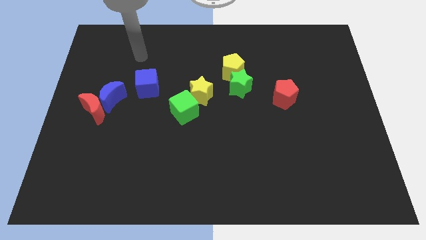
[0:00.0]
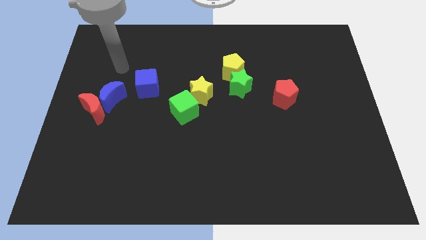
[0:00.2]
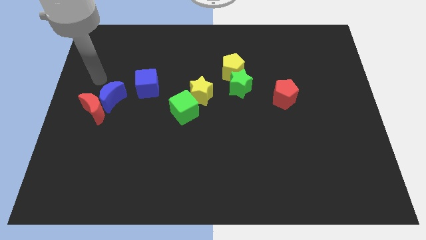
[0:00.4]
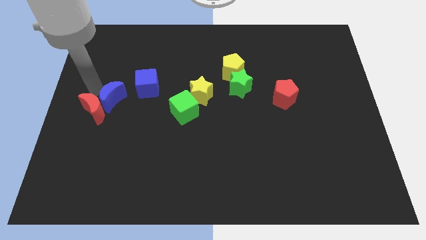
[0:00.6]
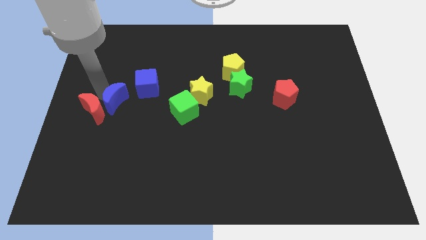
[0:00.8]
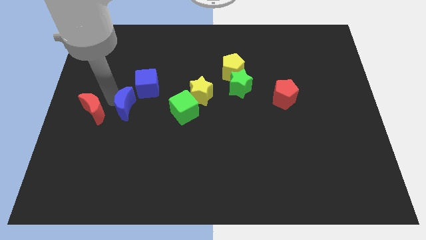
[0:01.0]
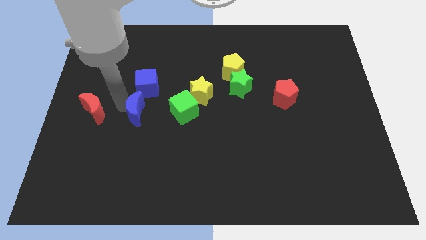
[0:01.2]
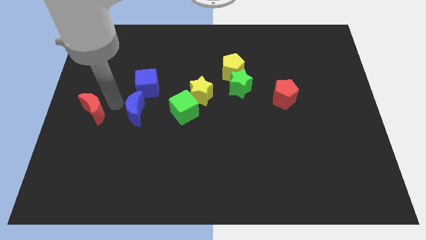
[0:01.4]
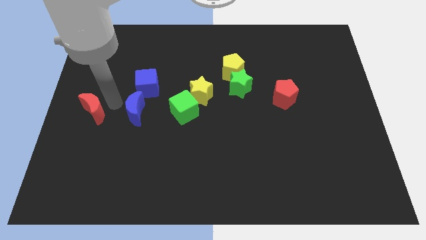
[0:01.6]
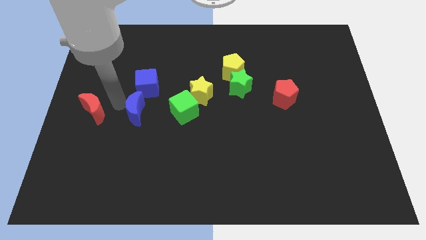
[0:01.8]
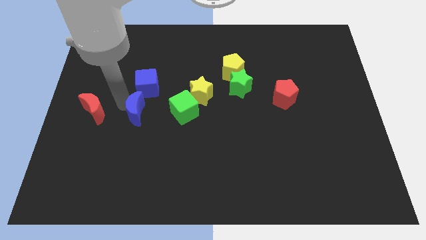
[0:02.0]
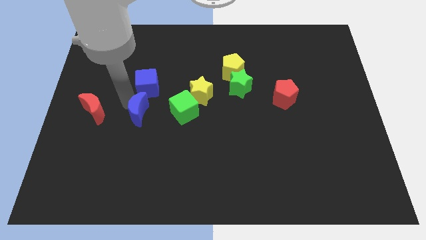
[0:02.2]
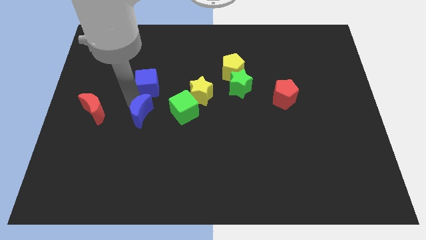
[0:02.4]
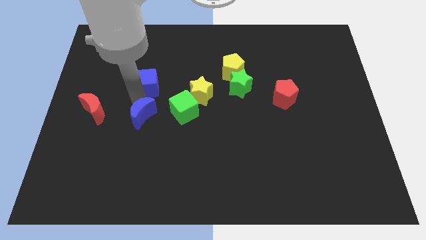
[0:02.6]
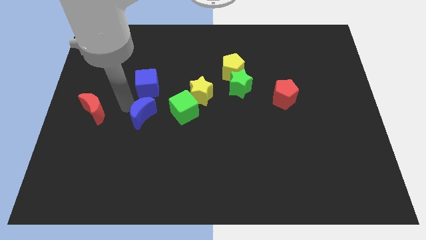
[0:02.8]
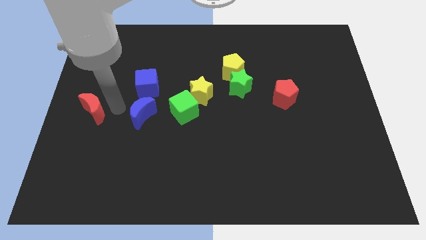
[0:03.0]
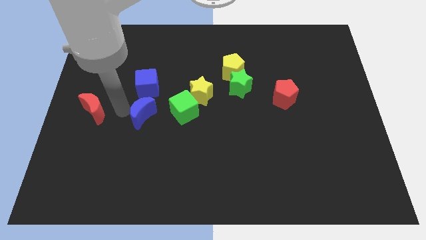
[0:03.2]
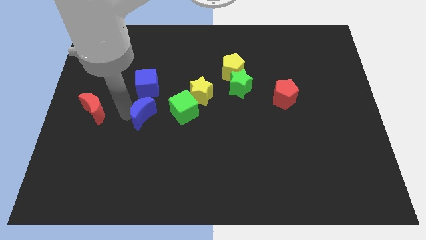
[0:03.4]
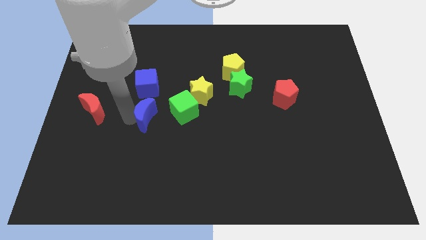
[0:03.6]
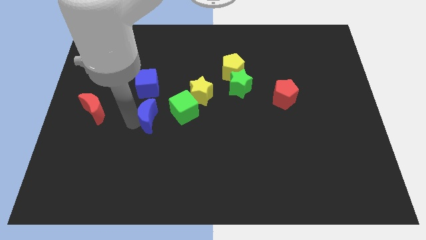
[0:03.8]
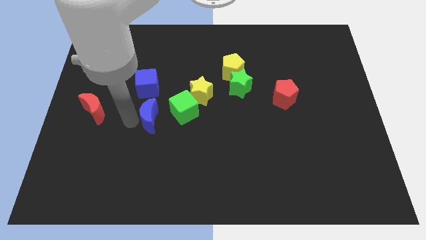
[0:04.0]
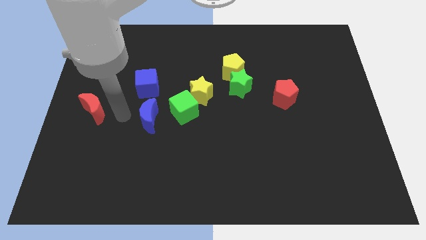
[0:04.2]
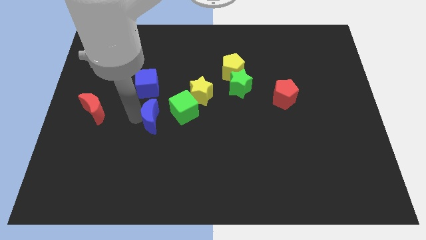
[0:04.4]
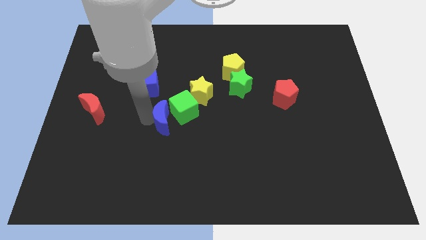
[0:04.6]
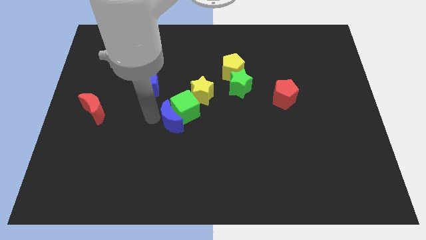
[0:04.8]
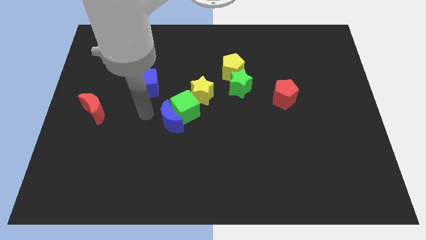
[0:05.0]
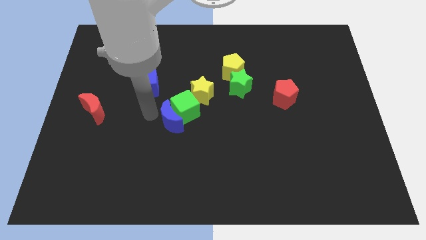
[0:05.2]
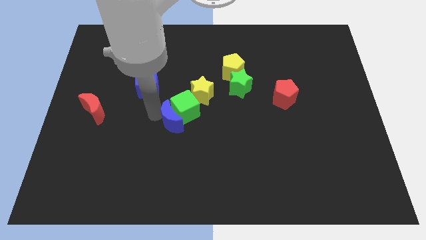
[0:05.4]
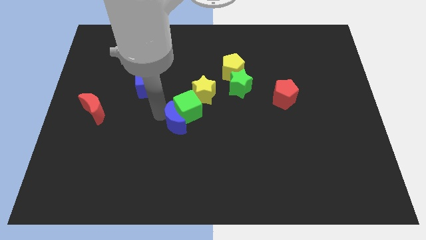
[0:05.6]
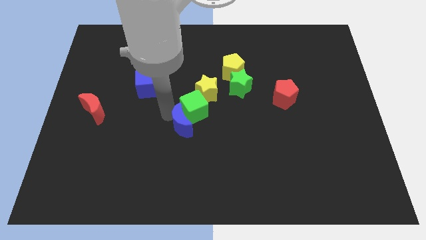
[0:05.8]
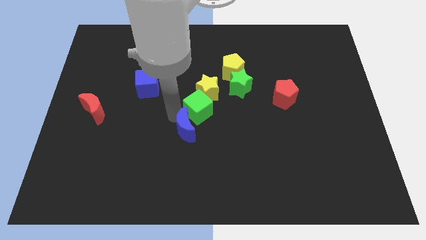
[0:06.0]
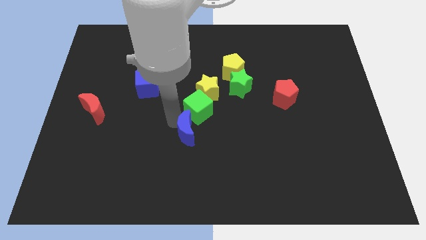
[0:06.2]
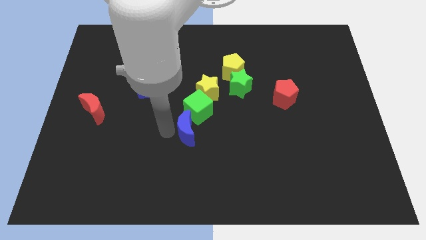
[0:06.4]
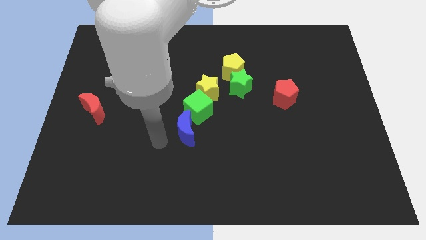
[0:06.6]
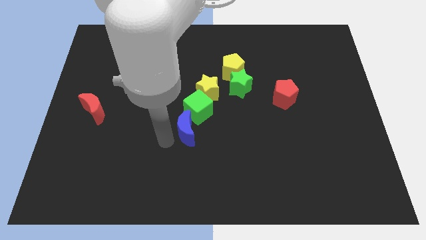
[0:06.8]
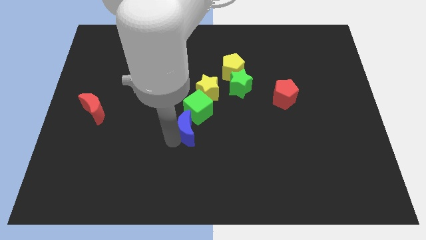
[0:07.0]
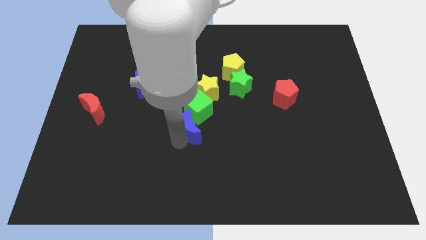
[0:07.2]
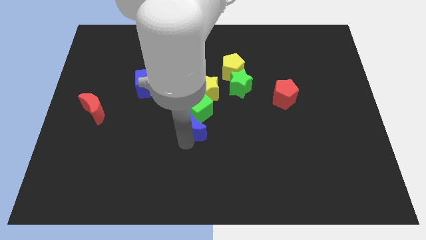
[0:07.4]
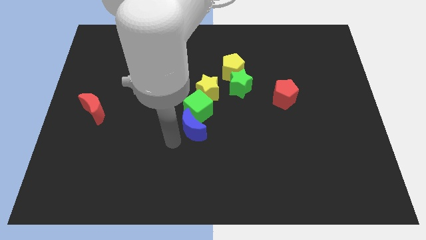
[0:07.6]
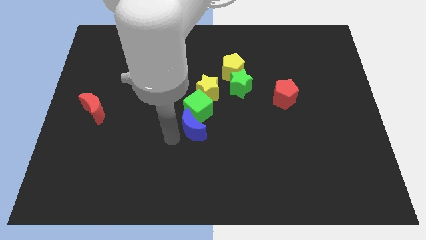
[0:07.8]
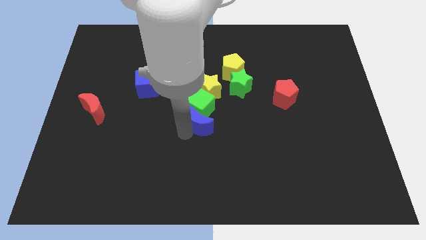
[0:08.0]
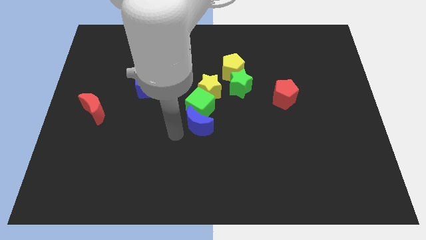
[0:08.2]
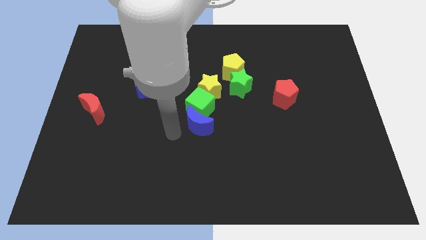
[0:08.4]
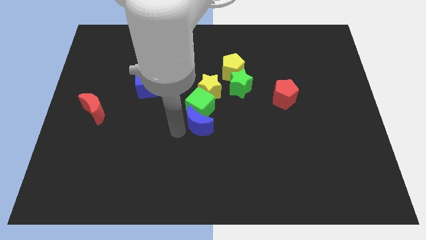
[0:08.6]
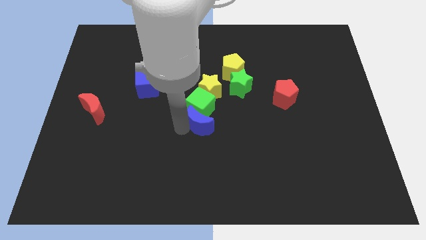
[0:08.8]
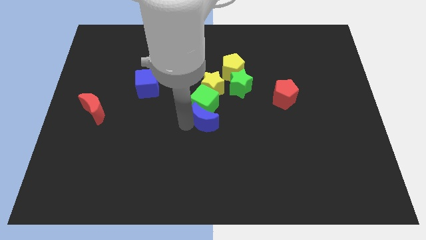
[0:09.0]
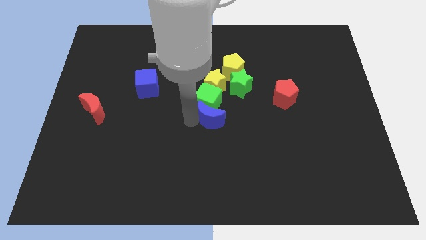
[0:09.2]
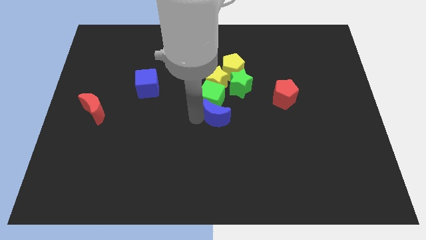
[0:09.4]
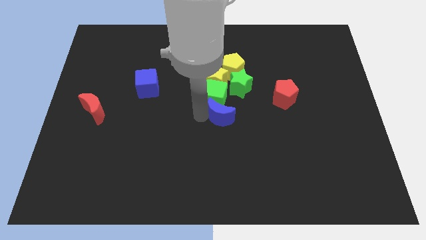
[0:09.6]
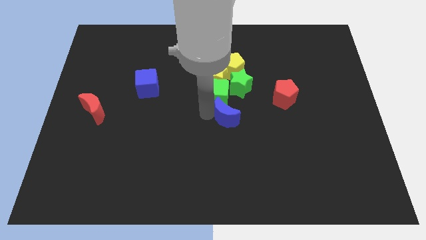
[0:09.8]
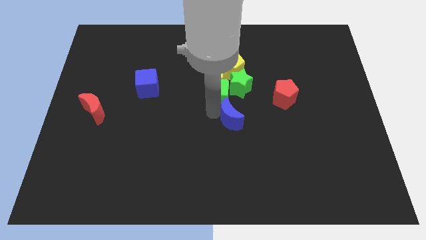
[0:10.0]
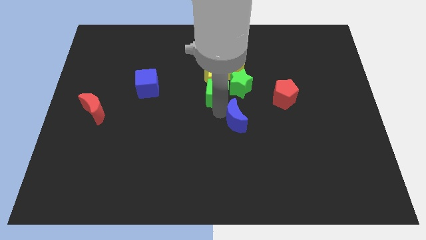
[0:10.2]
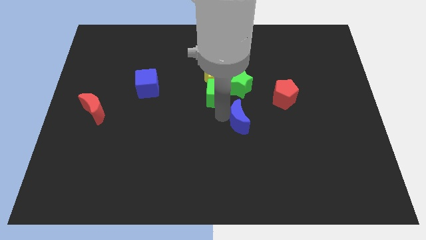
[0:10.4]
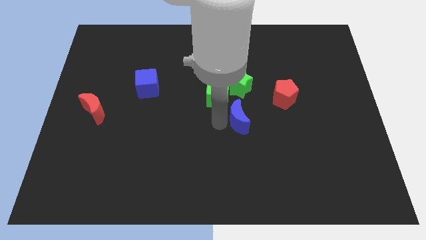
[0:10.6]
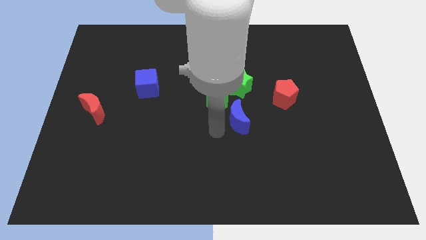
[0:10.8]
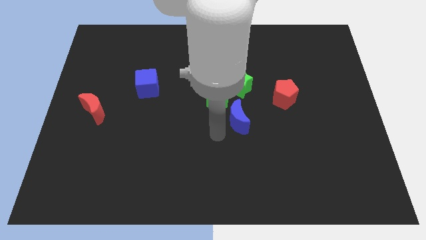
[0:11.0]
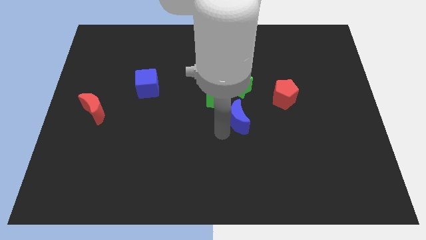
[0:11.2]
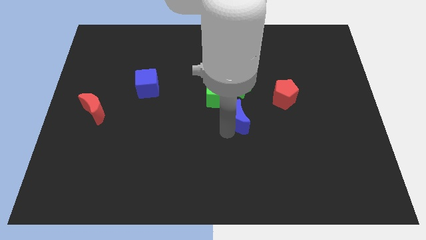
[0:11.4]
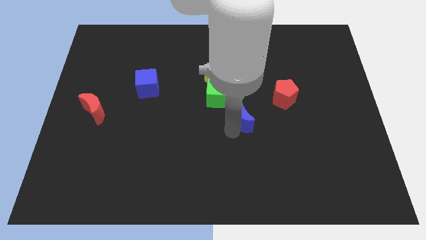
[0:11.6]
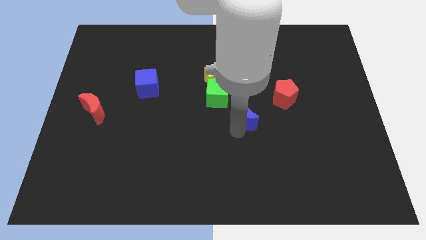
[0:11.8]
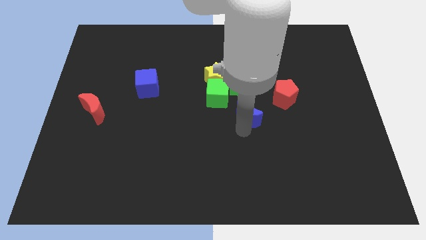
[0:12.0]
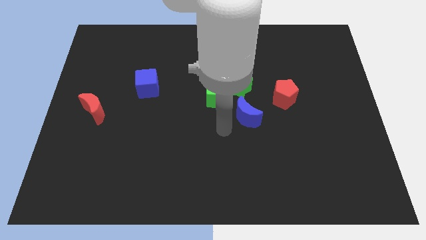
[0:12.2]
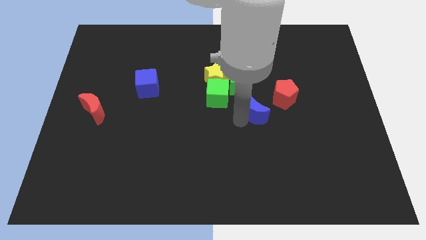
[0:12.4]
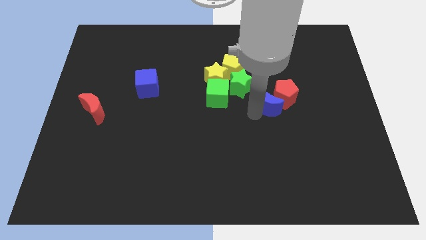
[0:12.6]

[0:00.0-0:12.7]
slide the blue moon towards the red pentagon

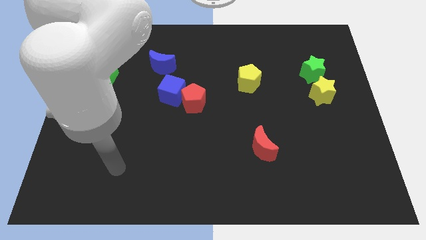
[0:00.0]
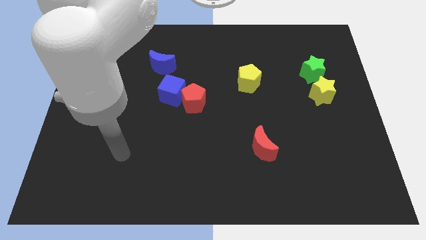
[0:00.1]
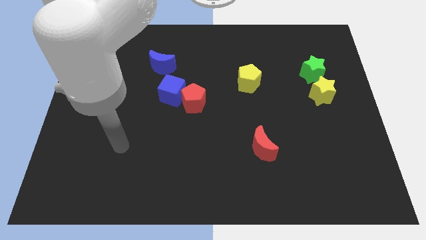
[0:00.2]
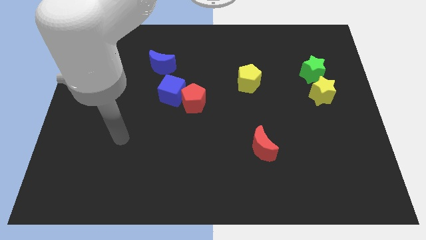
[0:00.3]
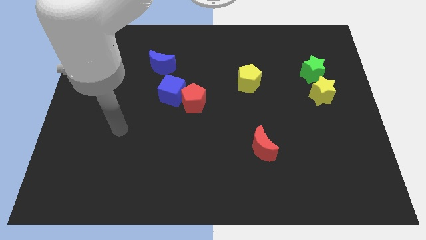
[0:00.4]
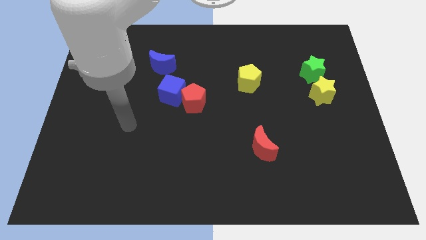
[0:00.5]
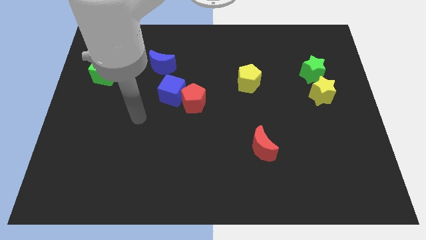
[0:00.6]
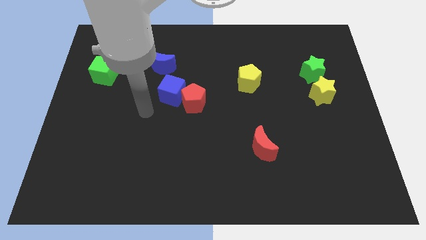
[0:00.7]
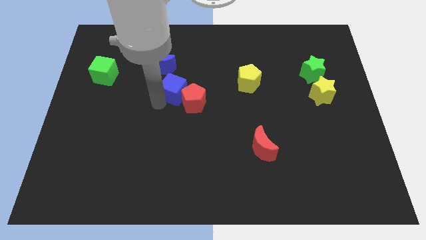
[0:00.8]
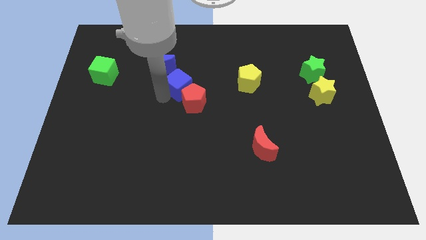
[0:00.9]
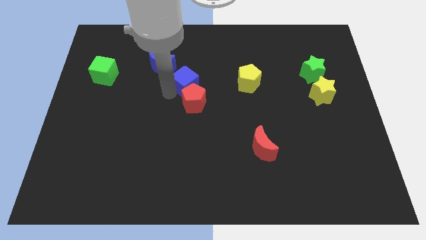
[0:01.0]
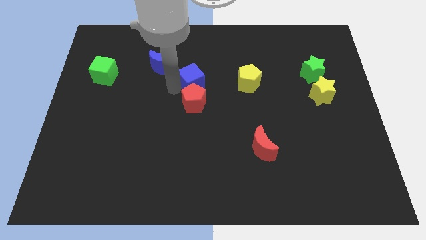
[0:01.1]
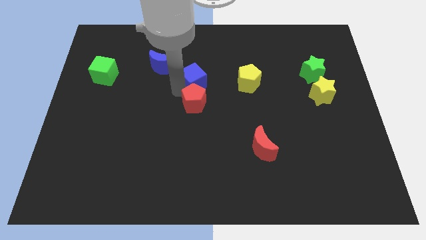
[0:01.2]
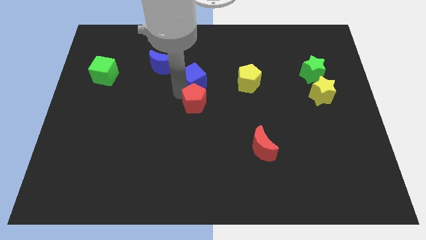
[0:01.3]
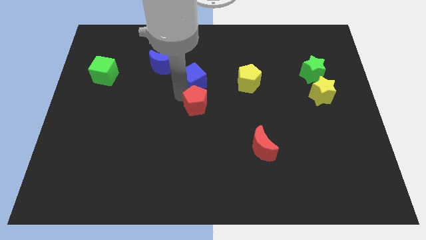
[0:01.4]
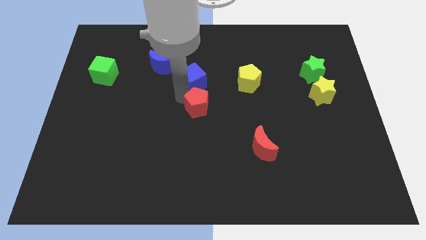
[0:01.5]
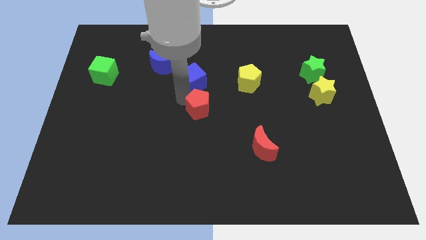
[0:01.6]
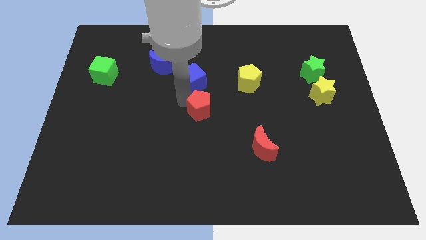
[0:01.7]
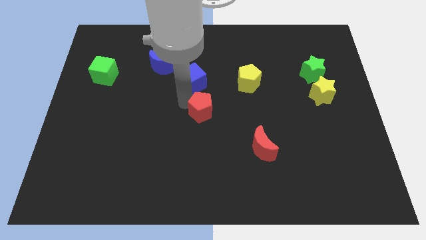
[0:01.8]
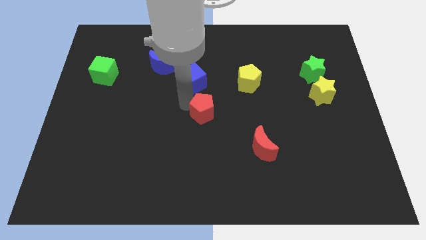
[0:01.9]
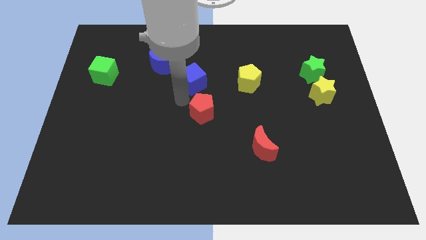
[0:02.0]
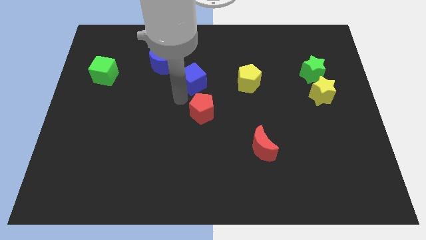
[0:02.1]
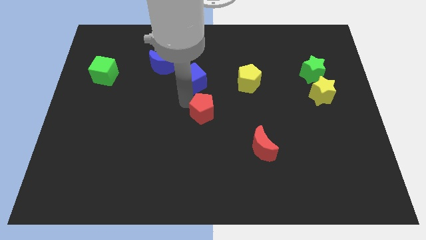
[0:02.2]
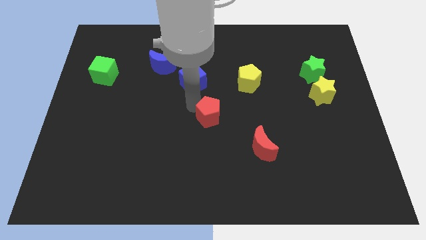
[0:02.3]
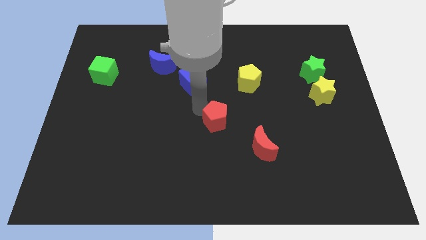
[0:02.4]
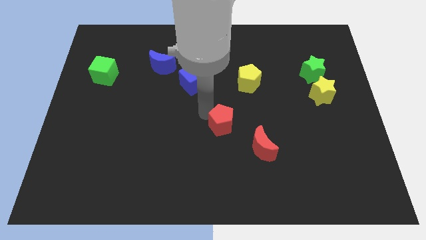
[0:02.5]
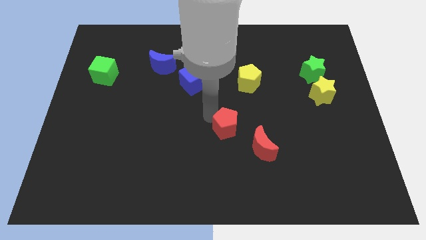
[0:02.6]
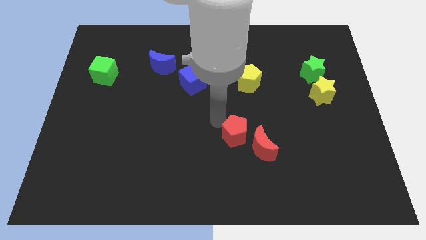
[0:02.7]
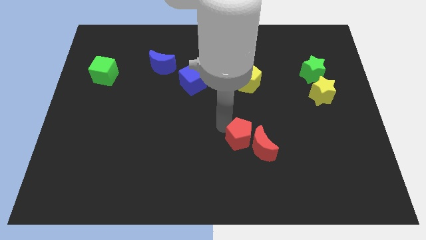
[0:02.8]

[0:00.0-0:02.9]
slide the red pentagon towards the red moon
